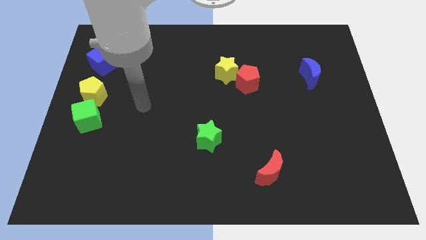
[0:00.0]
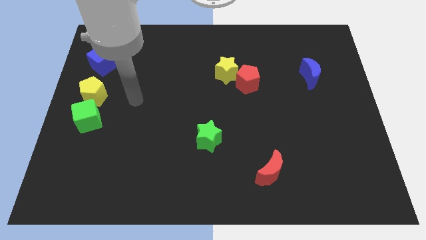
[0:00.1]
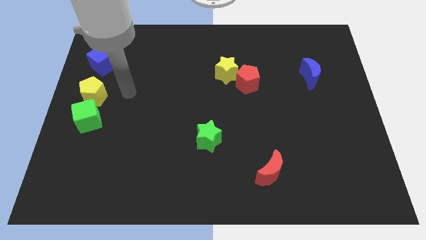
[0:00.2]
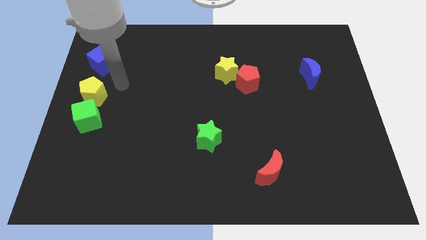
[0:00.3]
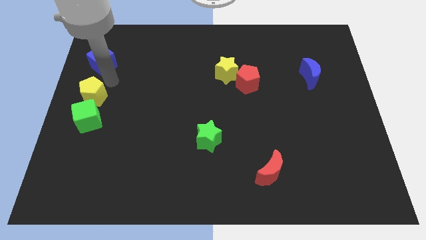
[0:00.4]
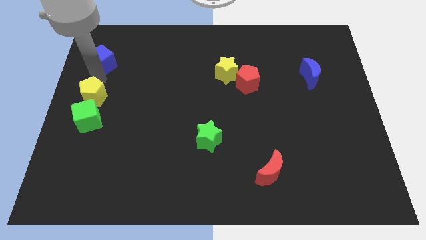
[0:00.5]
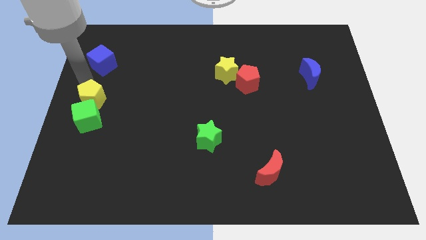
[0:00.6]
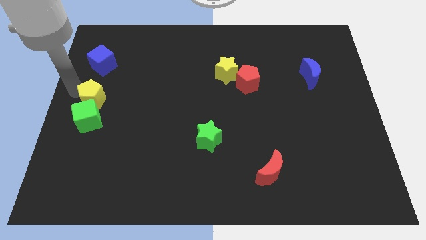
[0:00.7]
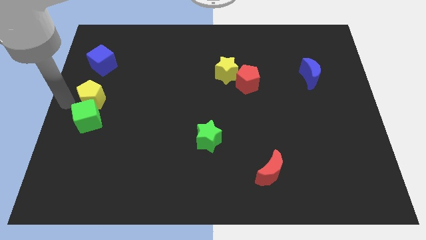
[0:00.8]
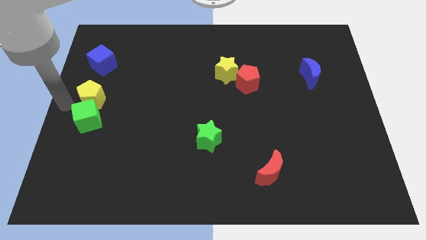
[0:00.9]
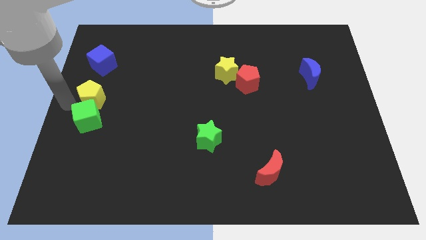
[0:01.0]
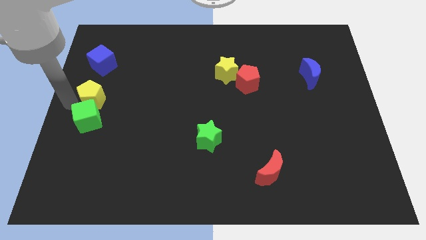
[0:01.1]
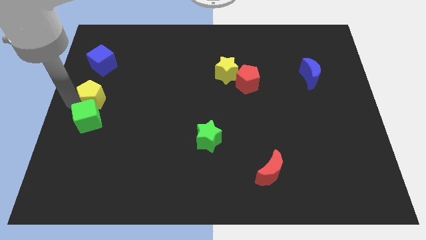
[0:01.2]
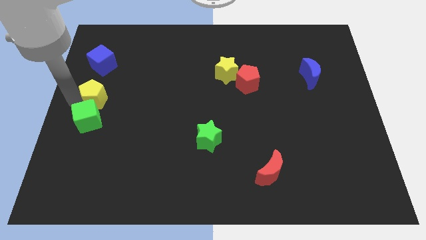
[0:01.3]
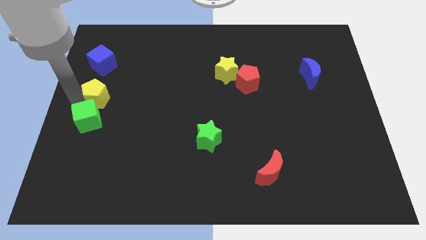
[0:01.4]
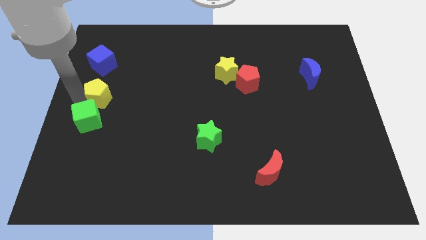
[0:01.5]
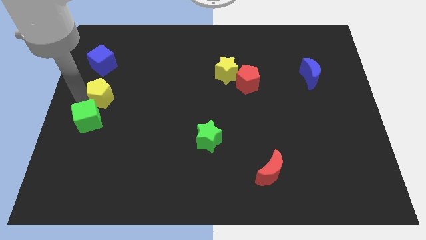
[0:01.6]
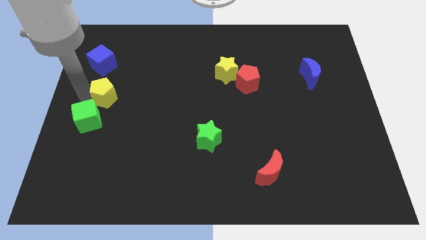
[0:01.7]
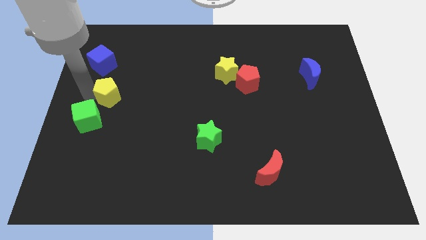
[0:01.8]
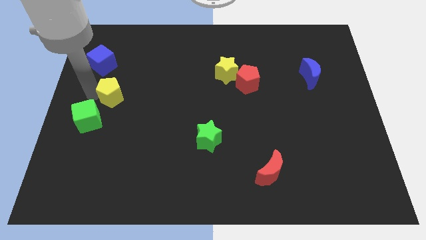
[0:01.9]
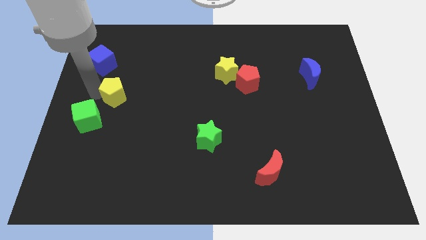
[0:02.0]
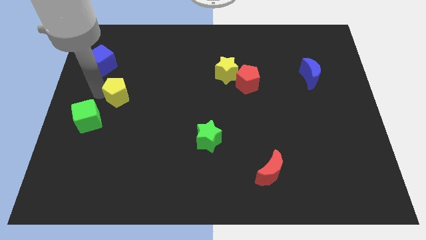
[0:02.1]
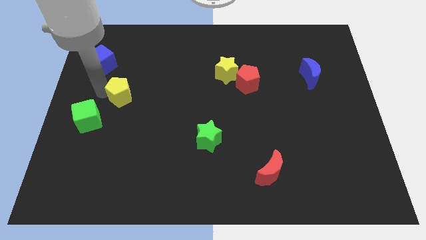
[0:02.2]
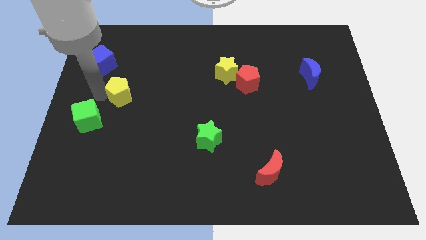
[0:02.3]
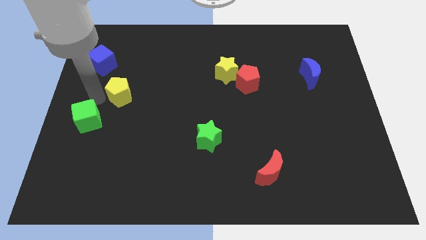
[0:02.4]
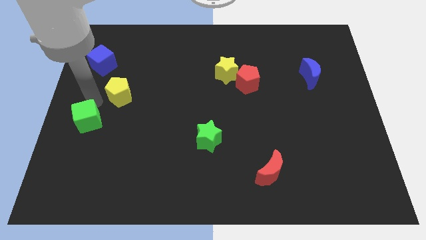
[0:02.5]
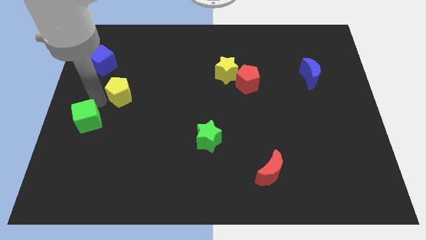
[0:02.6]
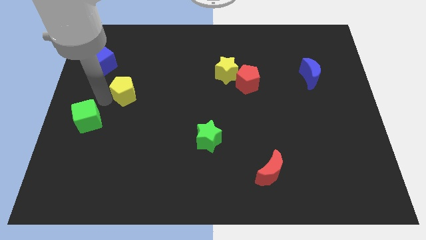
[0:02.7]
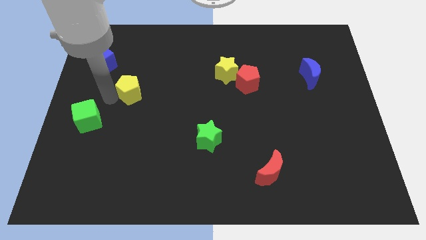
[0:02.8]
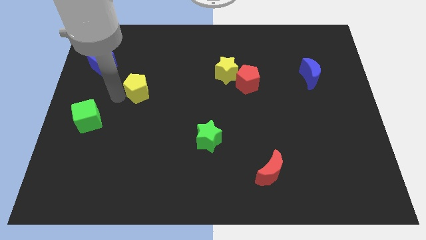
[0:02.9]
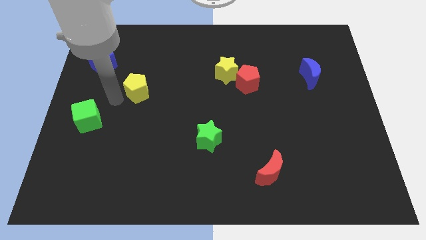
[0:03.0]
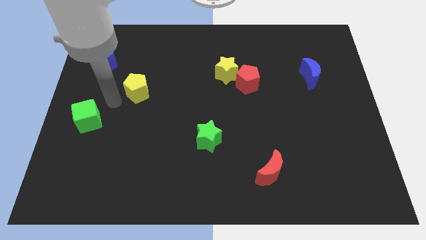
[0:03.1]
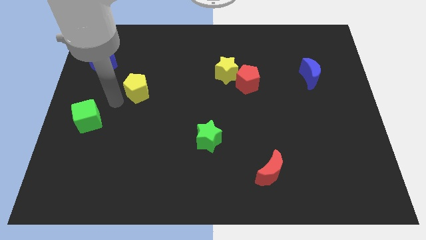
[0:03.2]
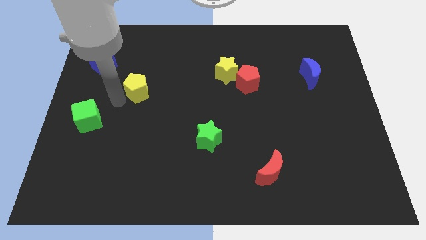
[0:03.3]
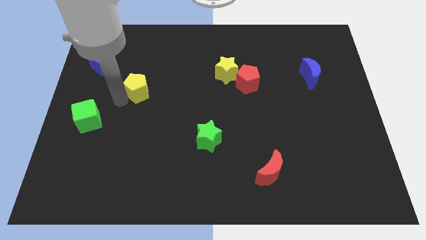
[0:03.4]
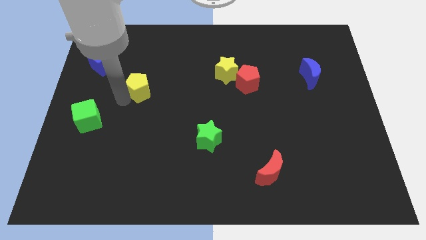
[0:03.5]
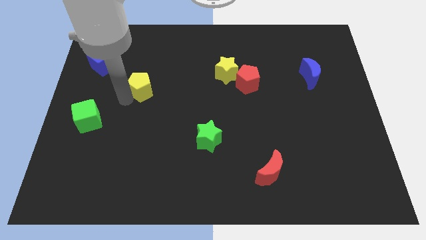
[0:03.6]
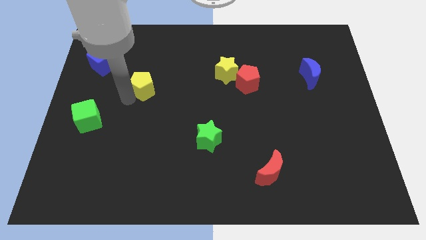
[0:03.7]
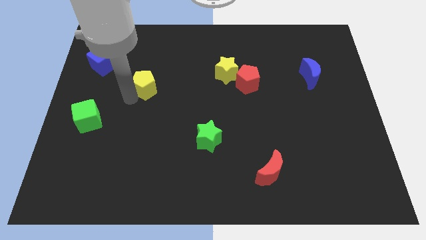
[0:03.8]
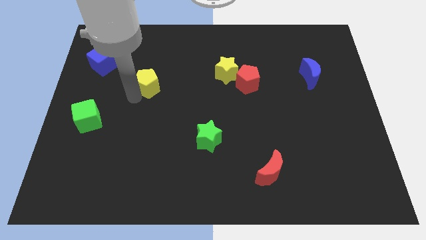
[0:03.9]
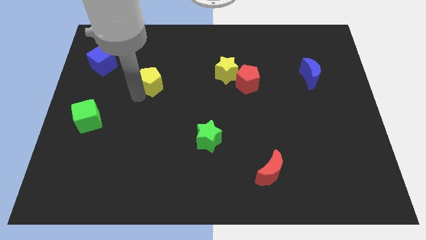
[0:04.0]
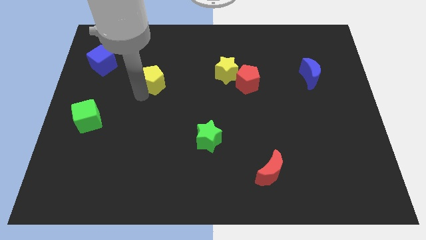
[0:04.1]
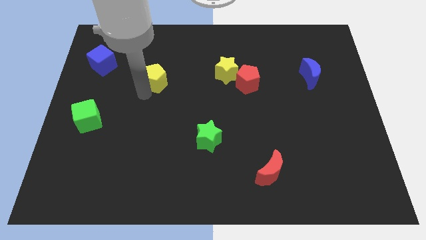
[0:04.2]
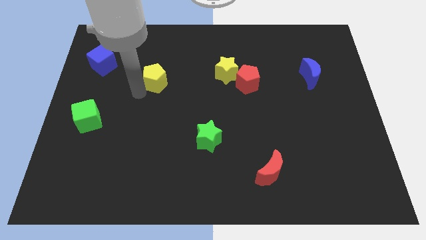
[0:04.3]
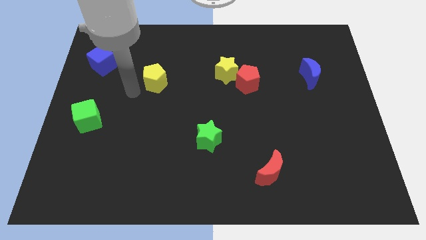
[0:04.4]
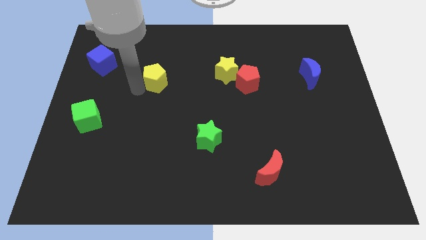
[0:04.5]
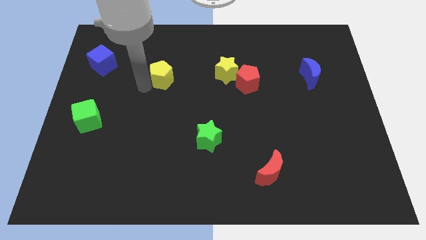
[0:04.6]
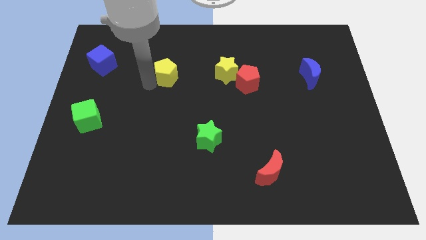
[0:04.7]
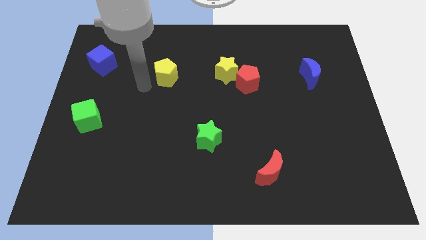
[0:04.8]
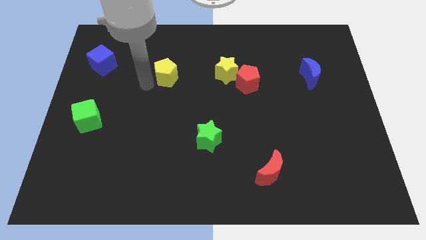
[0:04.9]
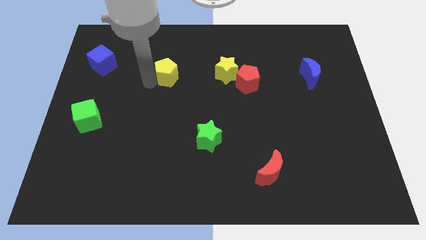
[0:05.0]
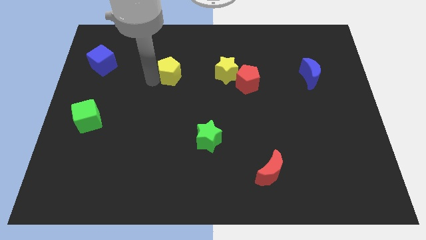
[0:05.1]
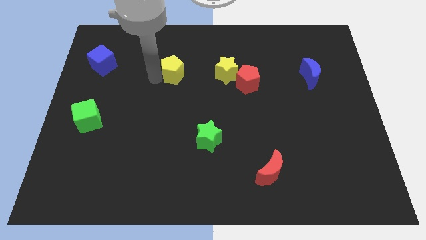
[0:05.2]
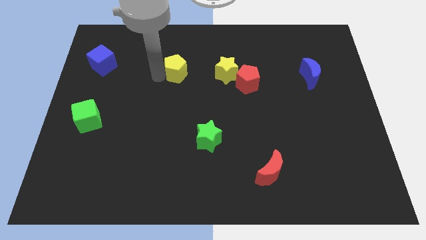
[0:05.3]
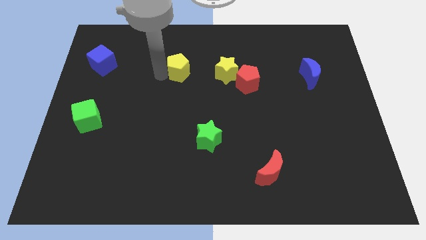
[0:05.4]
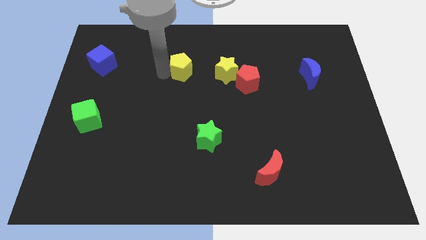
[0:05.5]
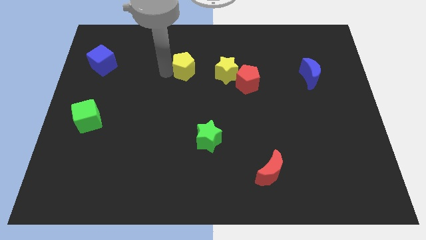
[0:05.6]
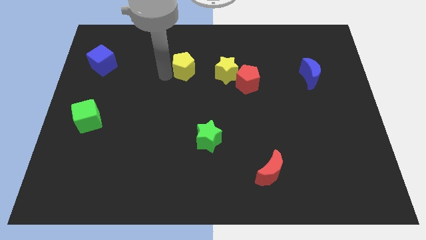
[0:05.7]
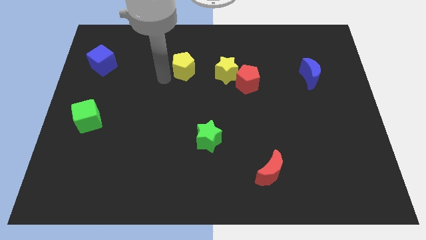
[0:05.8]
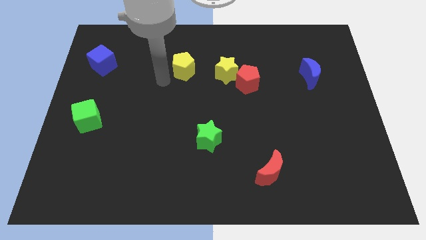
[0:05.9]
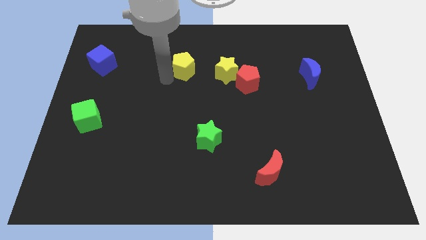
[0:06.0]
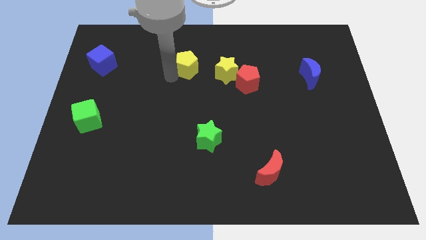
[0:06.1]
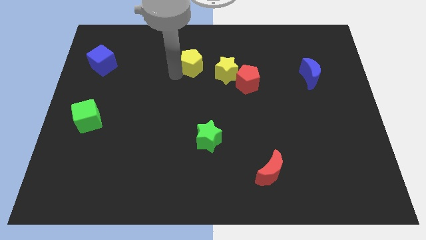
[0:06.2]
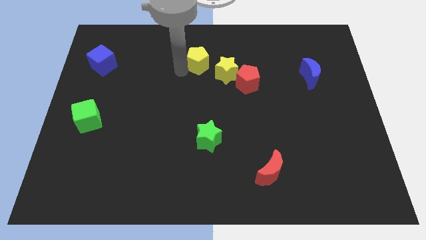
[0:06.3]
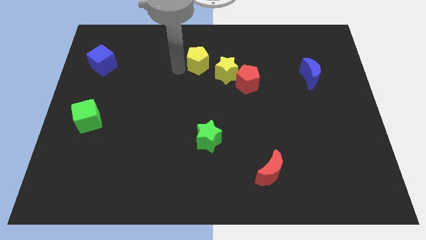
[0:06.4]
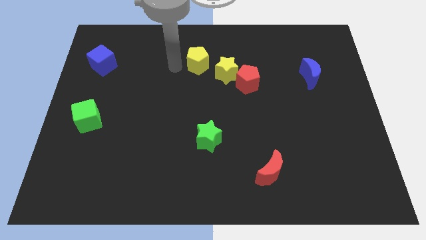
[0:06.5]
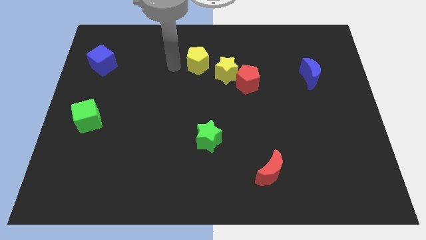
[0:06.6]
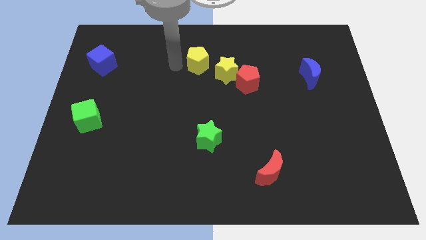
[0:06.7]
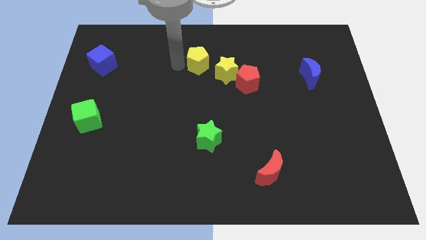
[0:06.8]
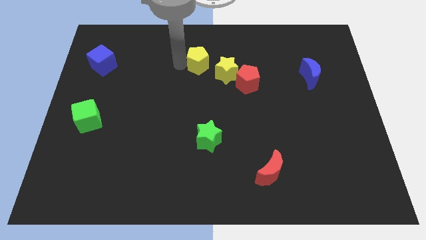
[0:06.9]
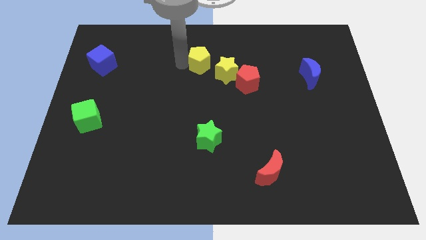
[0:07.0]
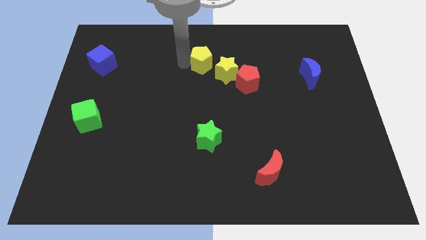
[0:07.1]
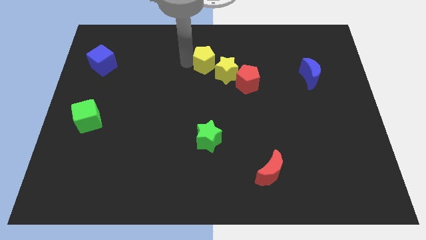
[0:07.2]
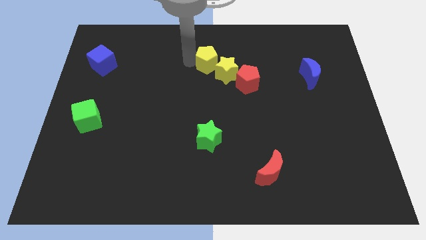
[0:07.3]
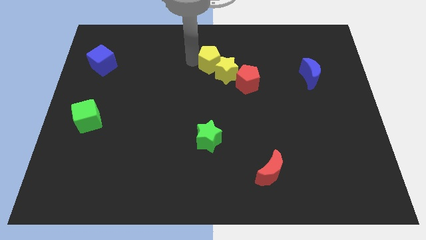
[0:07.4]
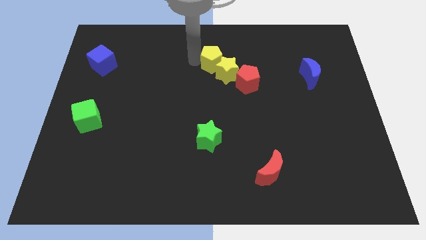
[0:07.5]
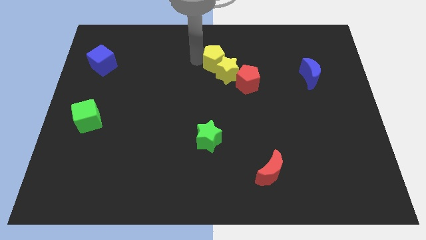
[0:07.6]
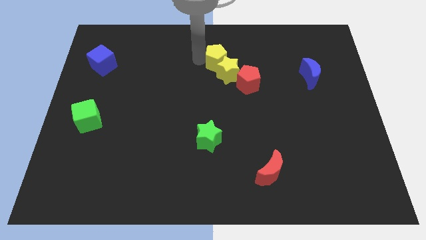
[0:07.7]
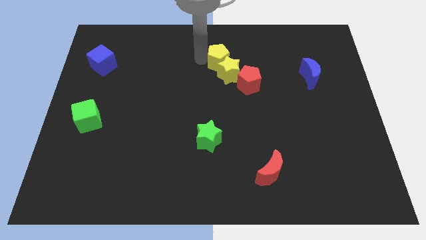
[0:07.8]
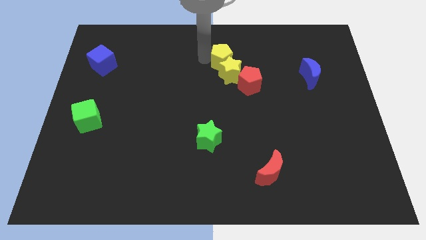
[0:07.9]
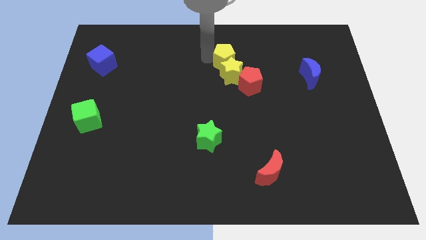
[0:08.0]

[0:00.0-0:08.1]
move the yellow pentagon diagonally up and to the right of the yellow star
